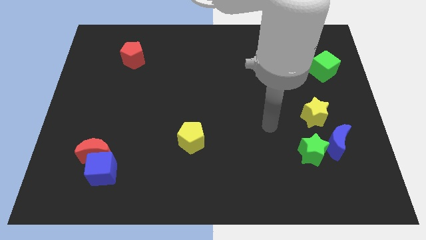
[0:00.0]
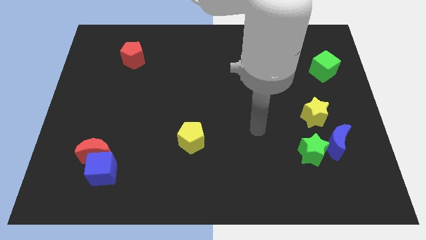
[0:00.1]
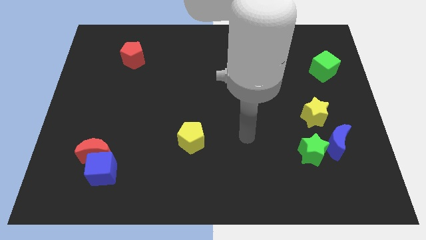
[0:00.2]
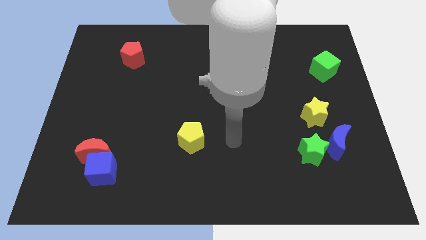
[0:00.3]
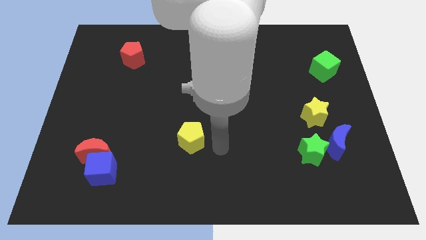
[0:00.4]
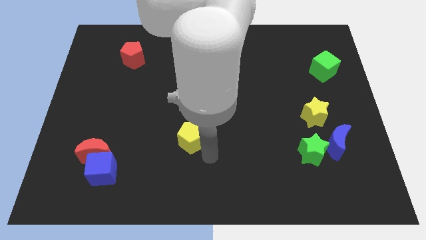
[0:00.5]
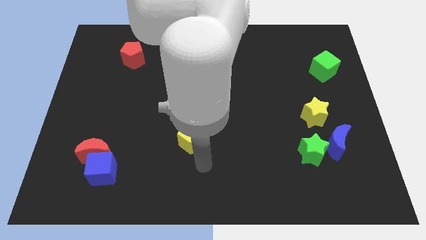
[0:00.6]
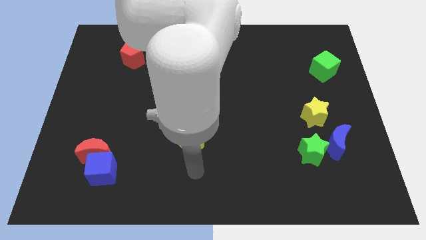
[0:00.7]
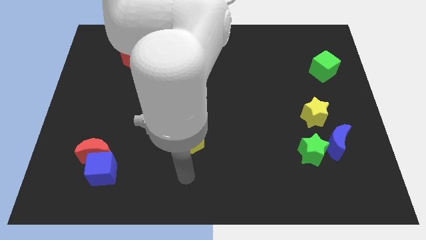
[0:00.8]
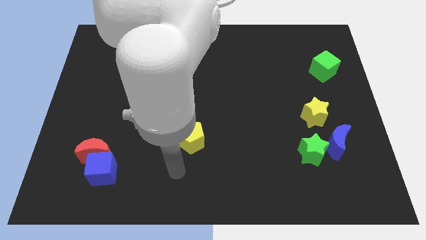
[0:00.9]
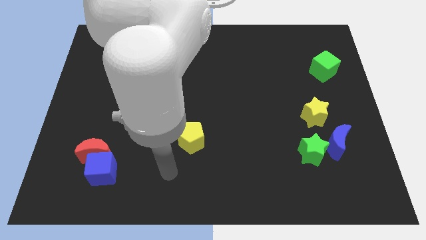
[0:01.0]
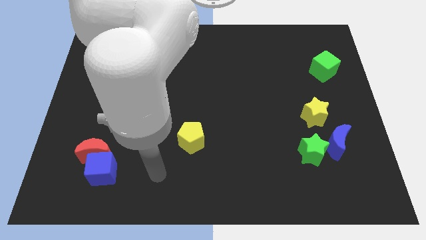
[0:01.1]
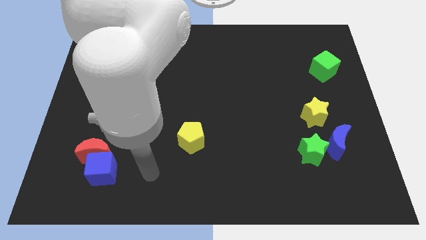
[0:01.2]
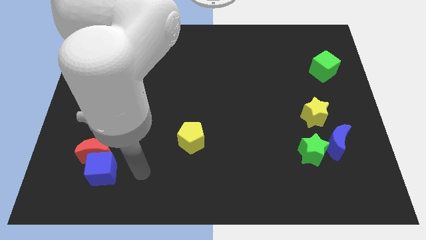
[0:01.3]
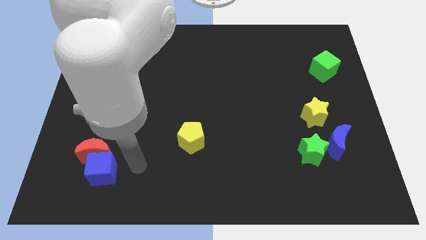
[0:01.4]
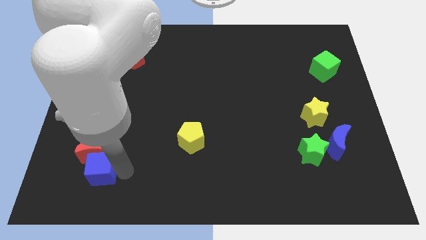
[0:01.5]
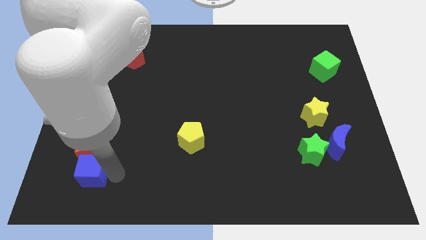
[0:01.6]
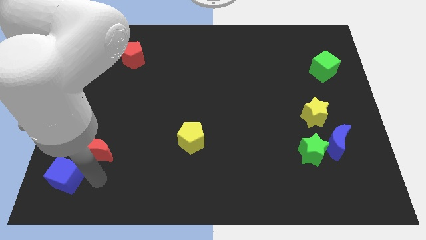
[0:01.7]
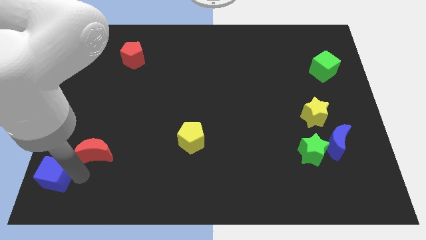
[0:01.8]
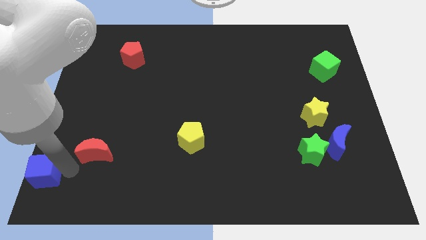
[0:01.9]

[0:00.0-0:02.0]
move the red moon away from the blue cube

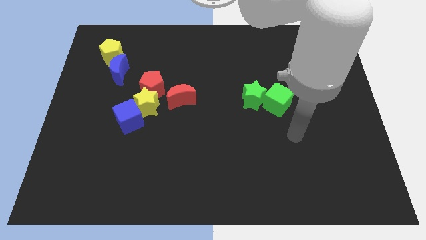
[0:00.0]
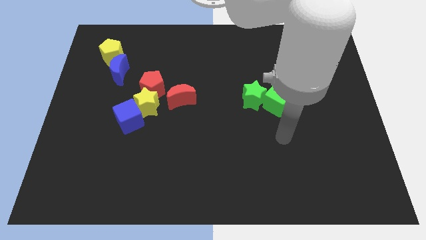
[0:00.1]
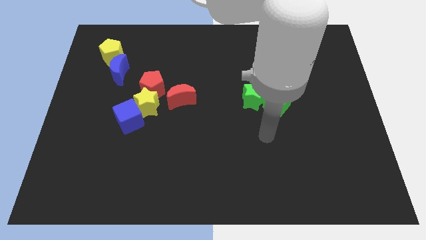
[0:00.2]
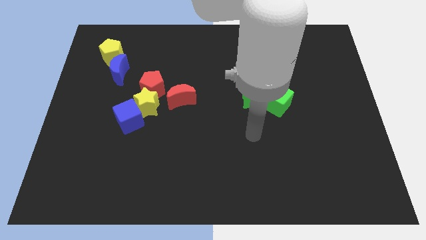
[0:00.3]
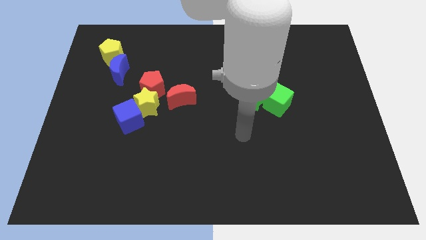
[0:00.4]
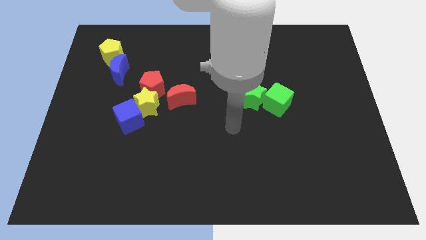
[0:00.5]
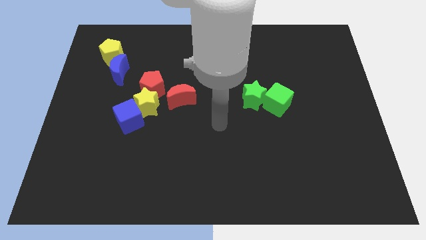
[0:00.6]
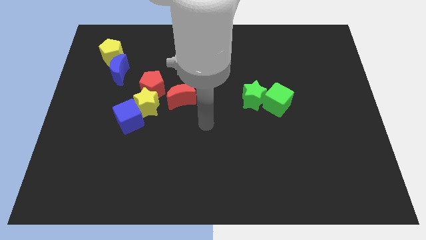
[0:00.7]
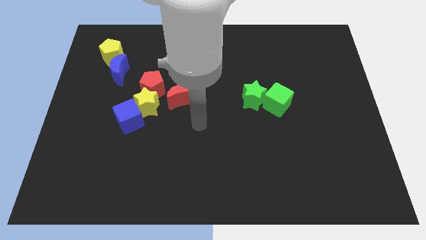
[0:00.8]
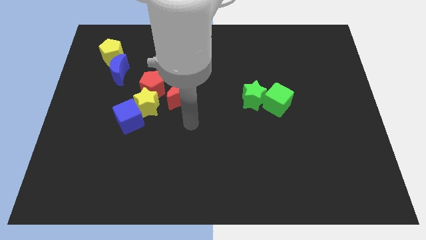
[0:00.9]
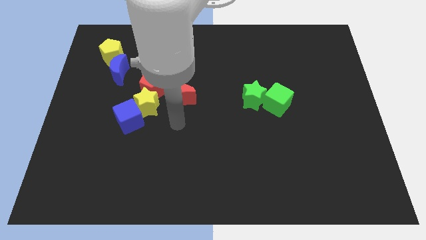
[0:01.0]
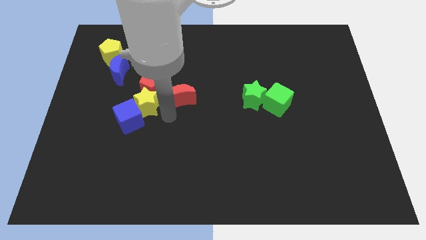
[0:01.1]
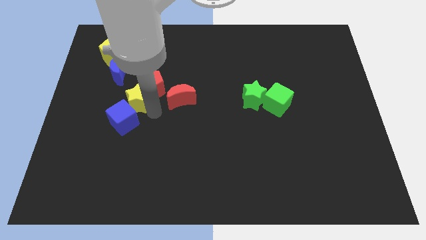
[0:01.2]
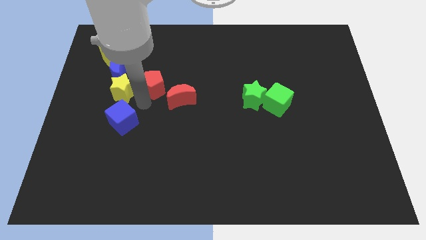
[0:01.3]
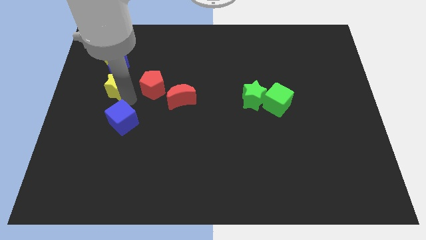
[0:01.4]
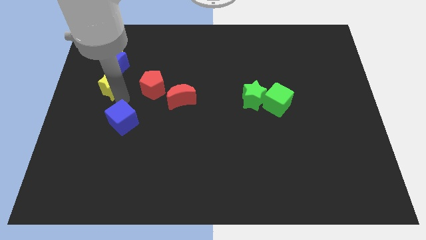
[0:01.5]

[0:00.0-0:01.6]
pull the blue cube apart from the yellow star

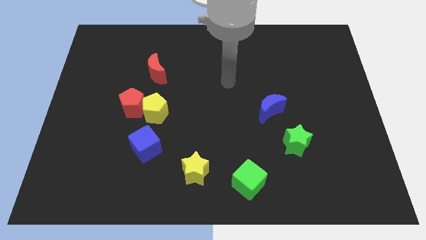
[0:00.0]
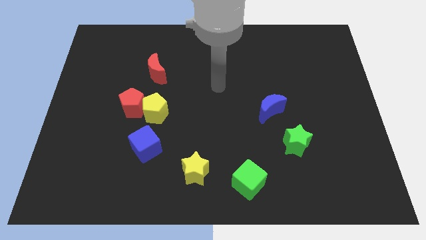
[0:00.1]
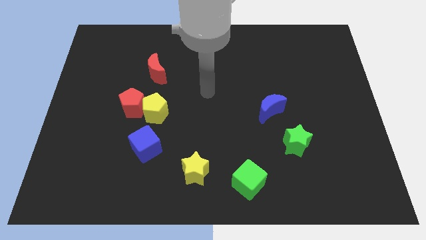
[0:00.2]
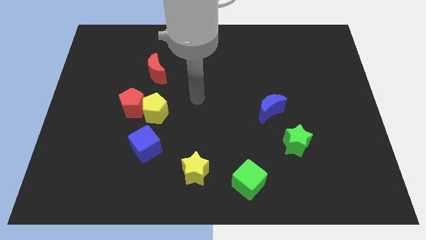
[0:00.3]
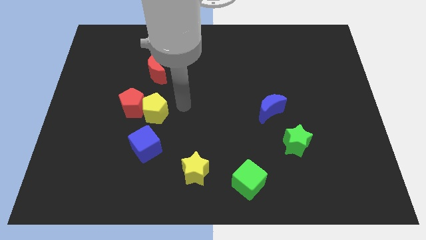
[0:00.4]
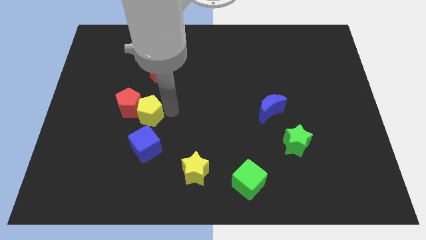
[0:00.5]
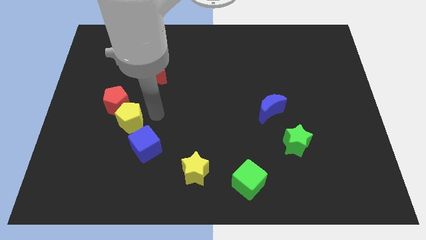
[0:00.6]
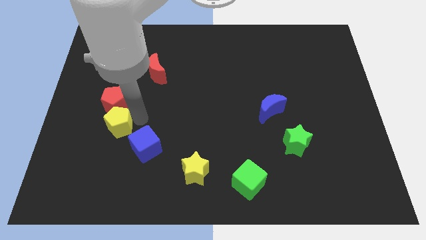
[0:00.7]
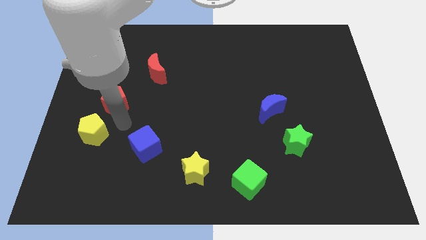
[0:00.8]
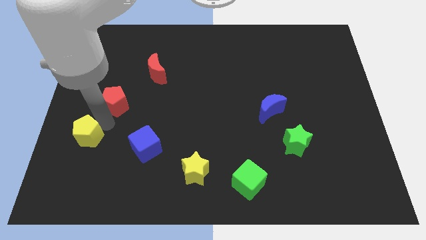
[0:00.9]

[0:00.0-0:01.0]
move the red pentagon away from the yellow pentagon

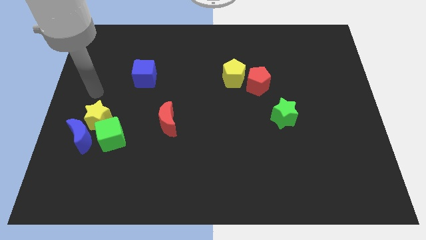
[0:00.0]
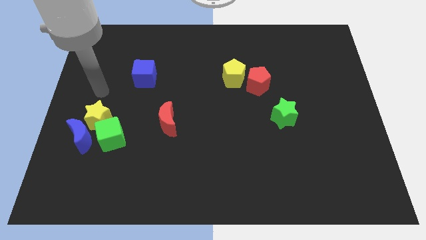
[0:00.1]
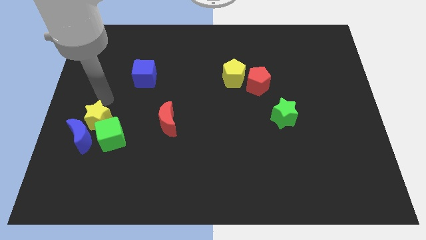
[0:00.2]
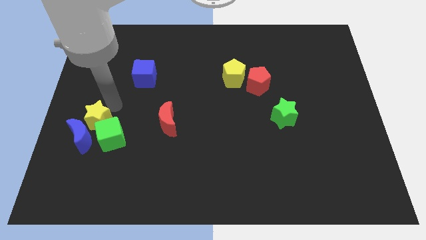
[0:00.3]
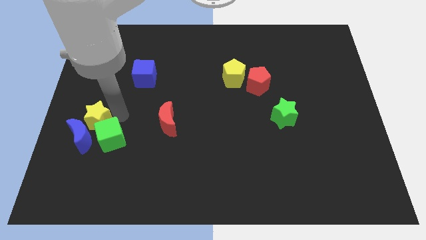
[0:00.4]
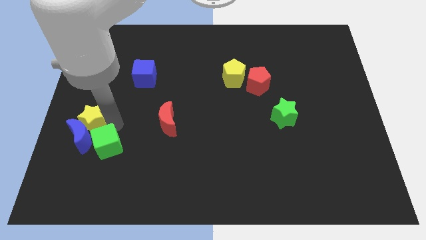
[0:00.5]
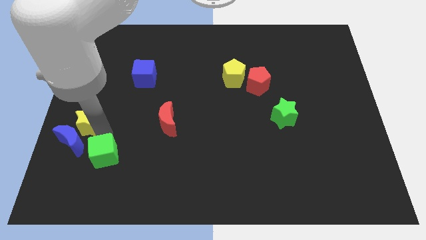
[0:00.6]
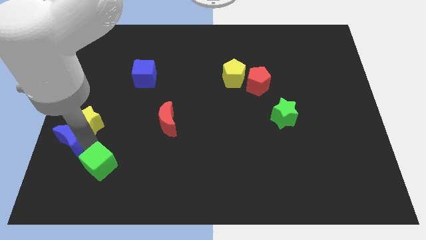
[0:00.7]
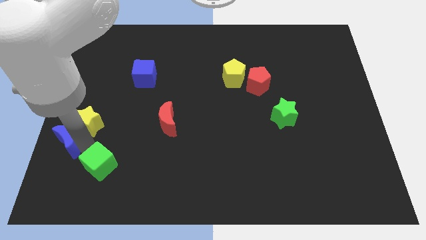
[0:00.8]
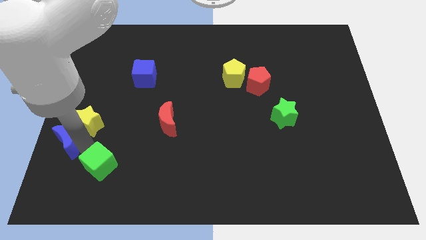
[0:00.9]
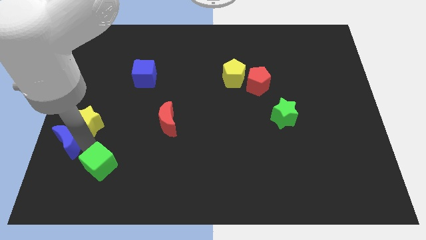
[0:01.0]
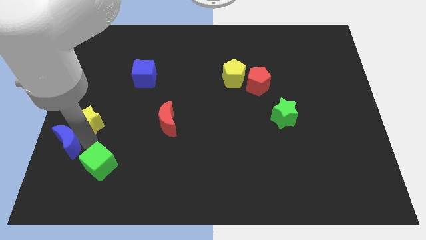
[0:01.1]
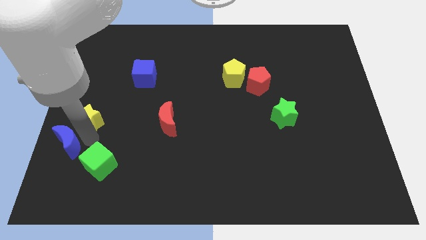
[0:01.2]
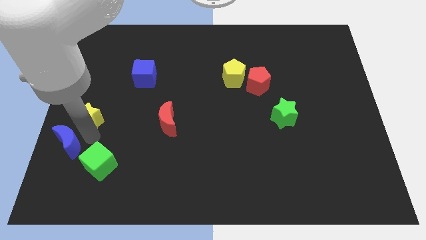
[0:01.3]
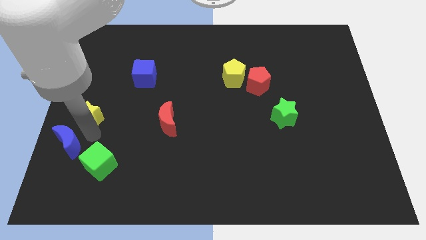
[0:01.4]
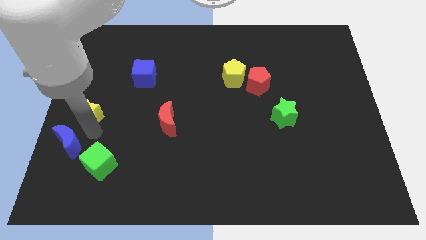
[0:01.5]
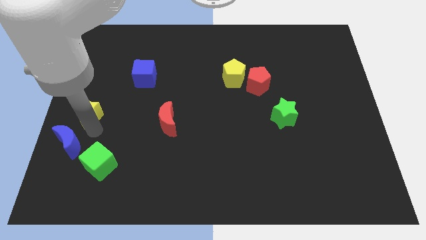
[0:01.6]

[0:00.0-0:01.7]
move the yellow star away from the blue moon and green cube

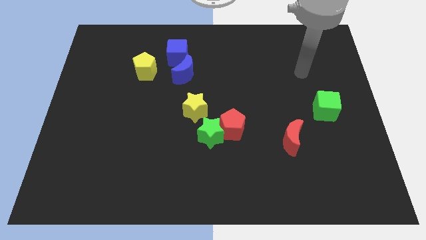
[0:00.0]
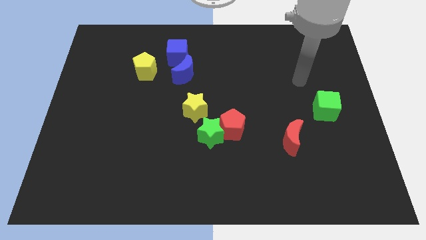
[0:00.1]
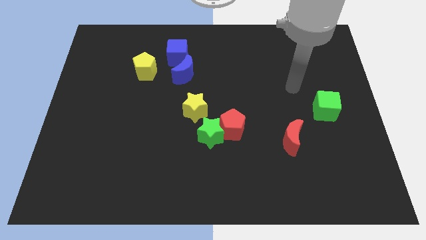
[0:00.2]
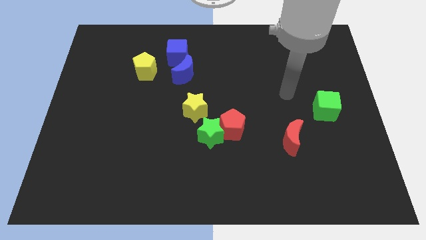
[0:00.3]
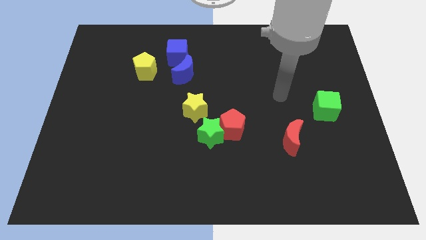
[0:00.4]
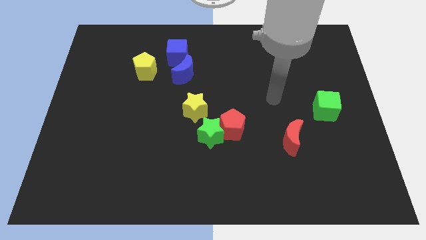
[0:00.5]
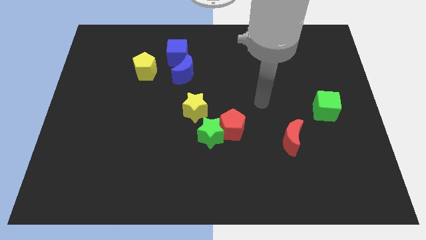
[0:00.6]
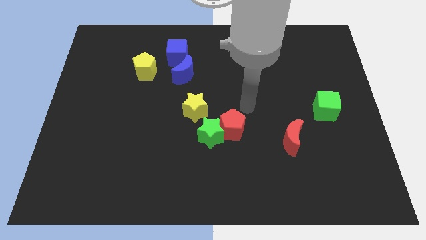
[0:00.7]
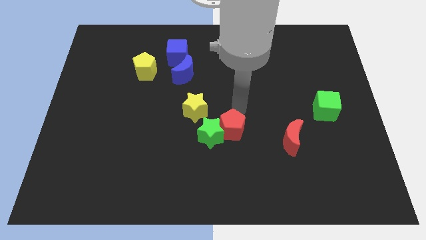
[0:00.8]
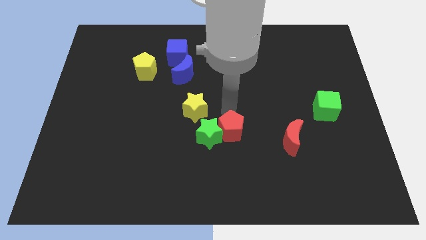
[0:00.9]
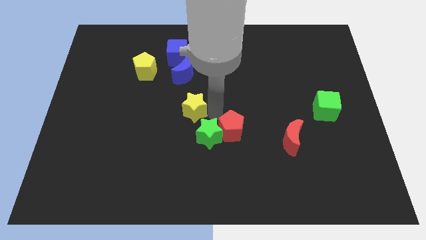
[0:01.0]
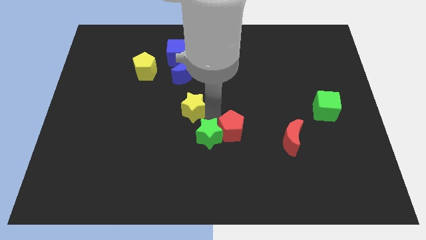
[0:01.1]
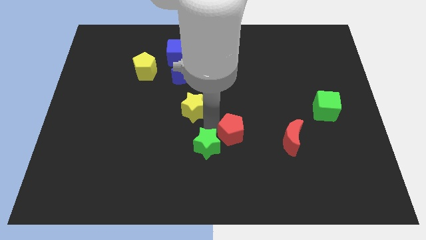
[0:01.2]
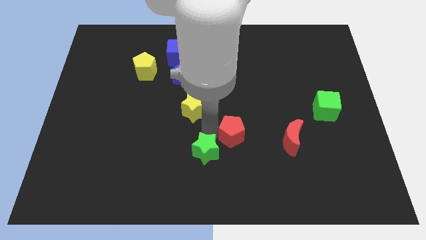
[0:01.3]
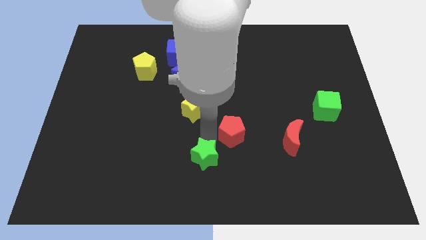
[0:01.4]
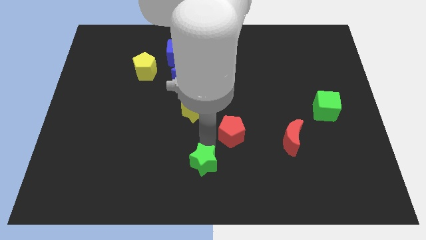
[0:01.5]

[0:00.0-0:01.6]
move the green star away from the red pentagon and yellow star

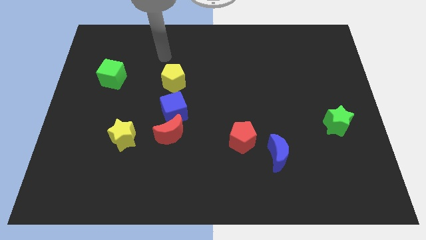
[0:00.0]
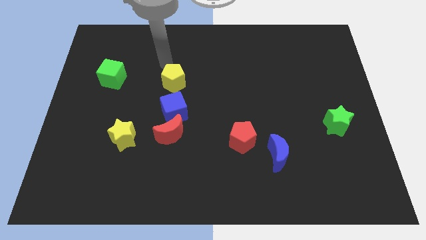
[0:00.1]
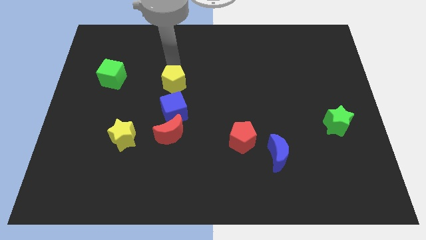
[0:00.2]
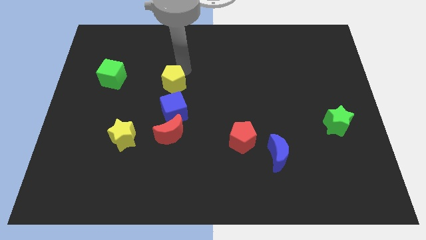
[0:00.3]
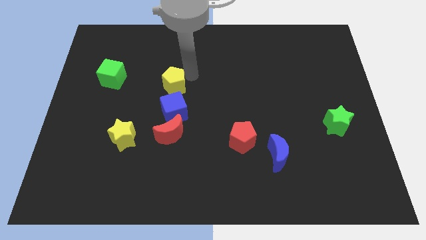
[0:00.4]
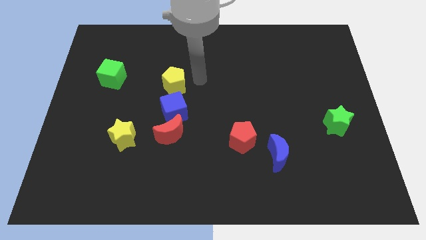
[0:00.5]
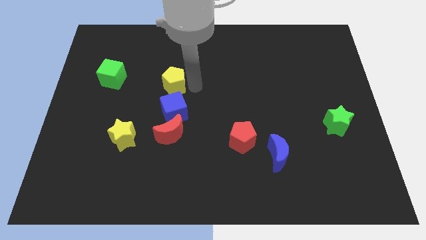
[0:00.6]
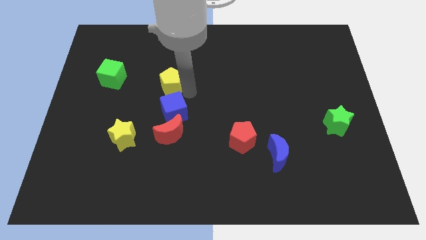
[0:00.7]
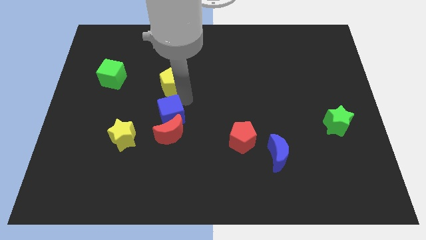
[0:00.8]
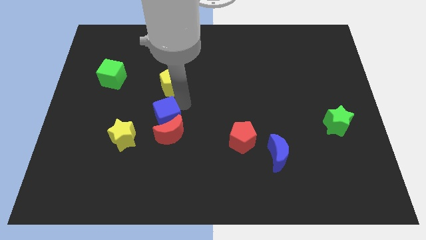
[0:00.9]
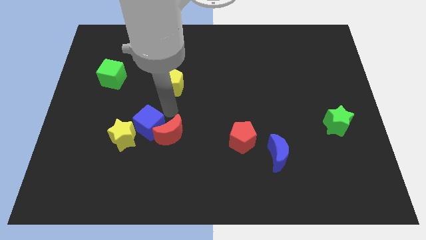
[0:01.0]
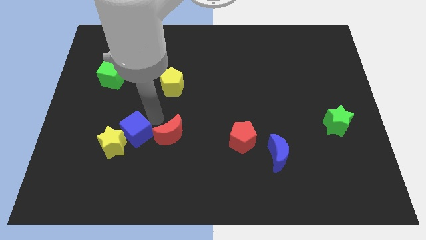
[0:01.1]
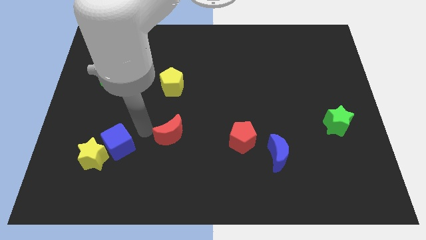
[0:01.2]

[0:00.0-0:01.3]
pull the red moon apart from the blue cube

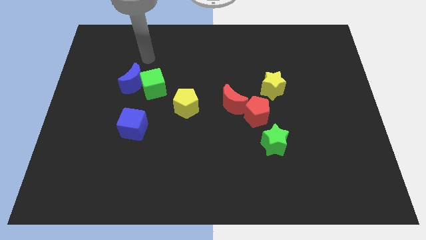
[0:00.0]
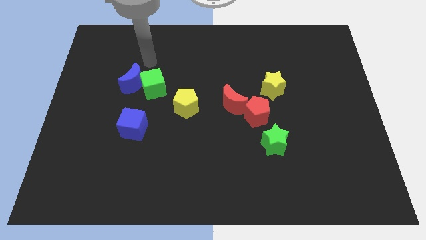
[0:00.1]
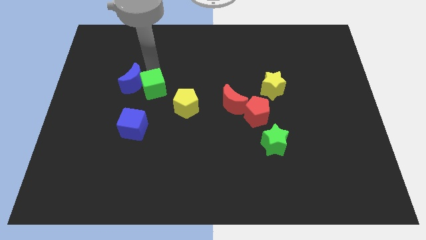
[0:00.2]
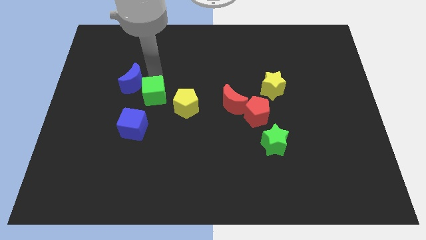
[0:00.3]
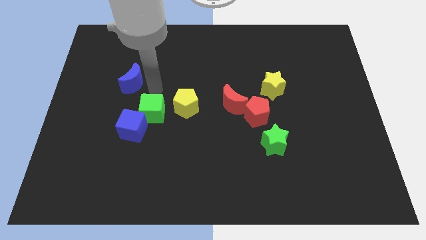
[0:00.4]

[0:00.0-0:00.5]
separate the blue moon from the green cube
